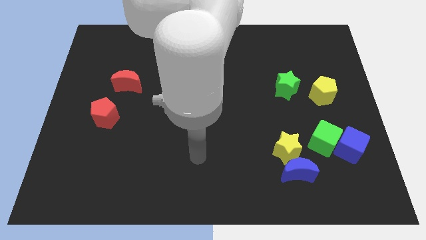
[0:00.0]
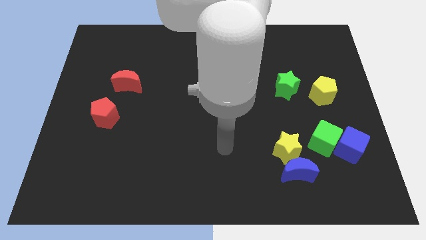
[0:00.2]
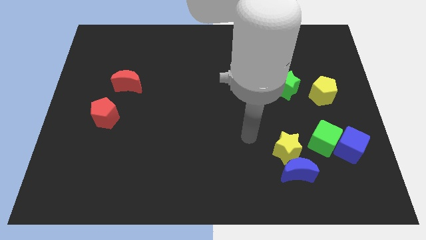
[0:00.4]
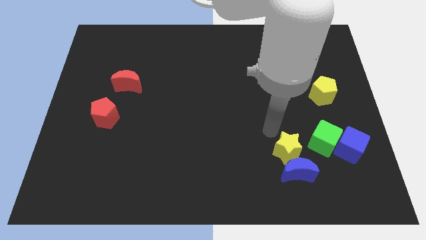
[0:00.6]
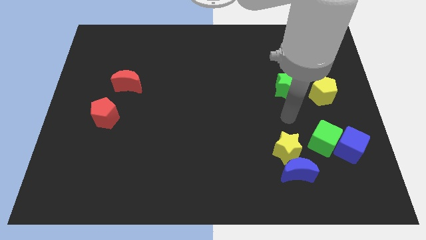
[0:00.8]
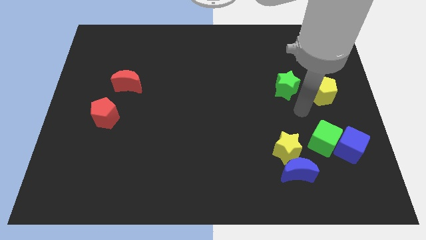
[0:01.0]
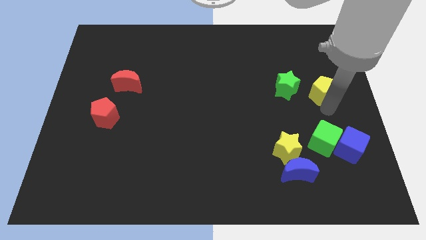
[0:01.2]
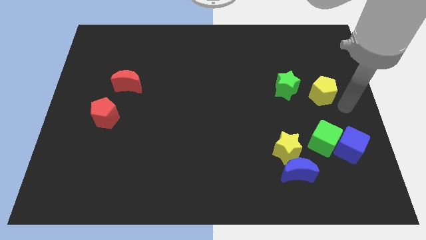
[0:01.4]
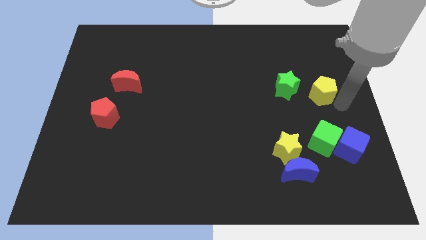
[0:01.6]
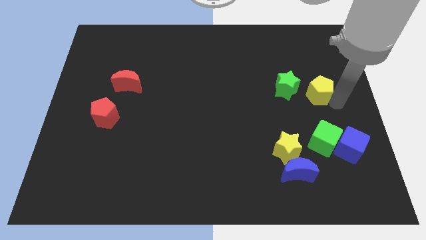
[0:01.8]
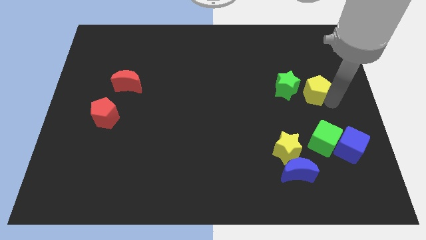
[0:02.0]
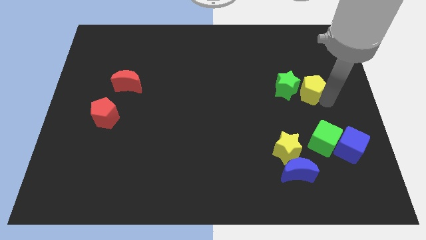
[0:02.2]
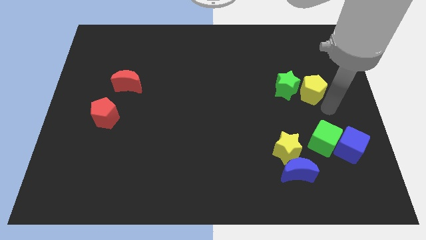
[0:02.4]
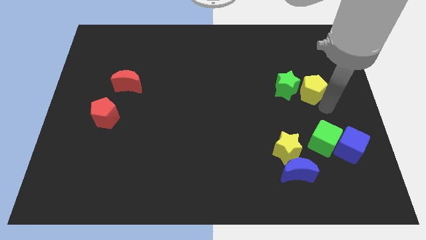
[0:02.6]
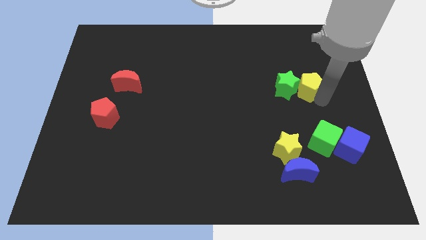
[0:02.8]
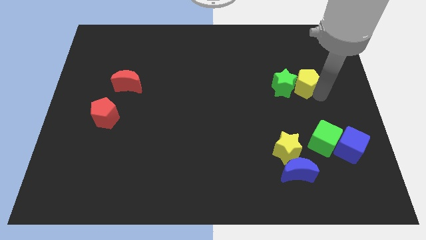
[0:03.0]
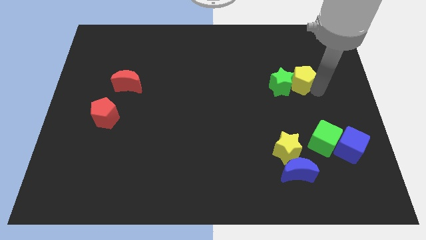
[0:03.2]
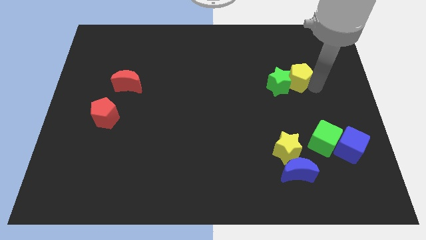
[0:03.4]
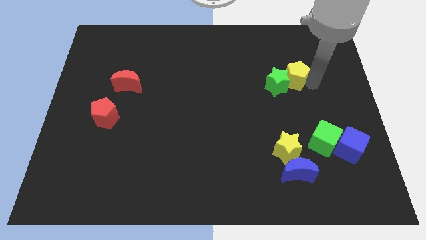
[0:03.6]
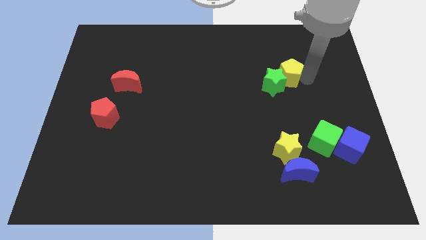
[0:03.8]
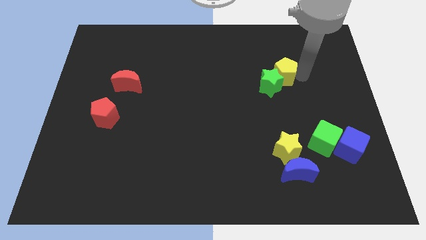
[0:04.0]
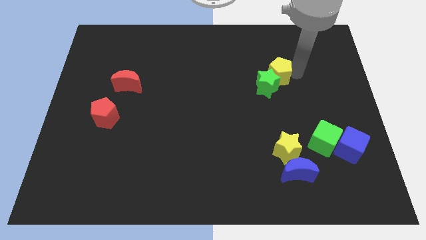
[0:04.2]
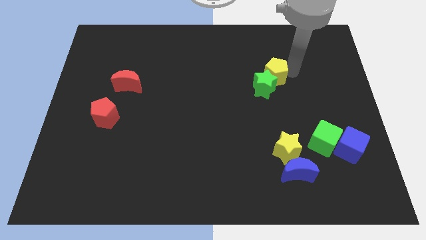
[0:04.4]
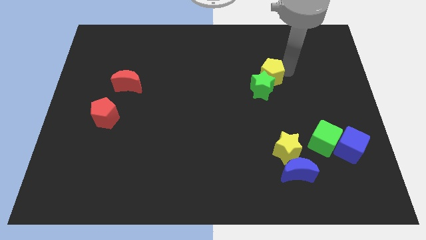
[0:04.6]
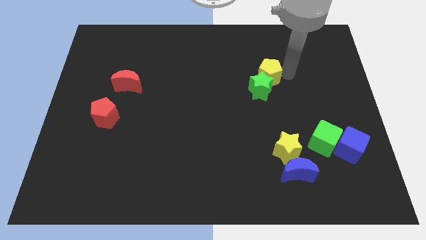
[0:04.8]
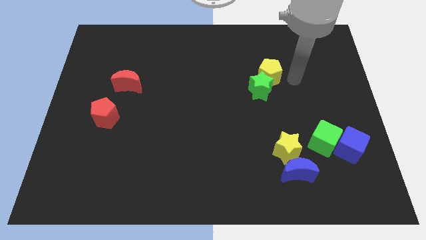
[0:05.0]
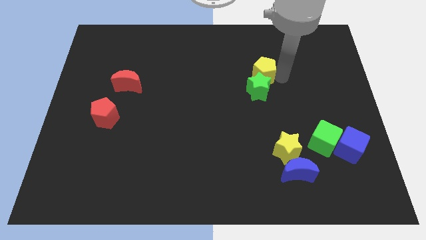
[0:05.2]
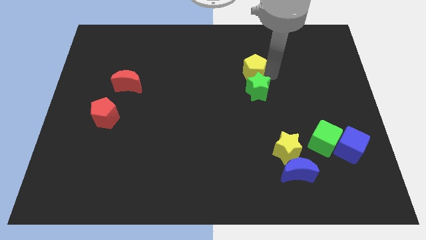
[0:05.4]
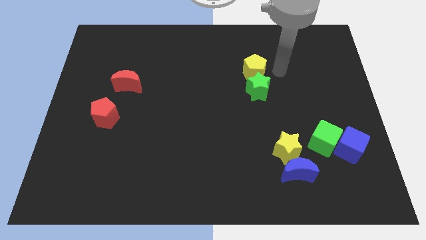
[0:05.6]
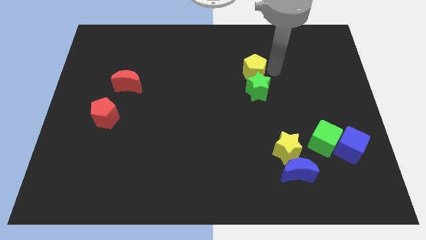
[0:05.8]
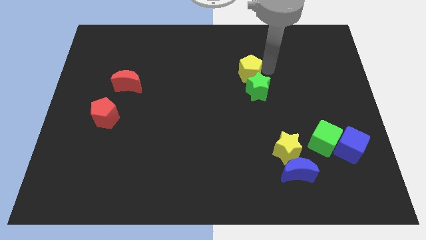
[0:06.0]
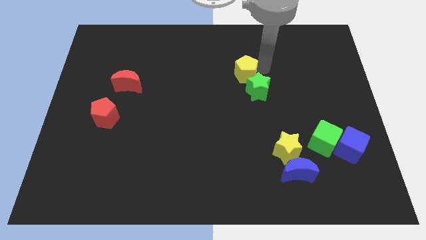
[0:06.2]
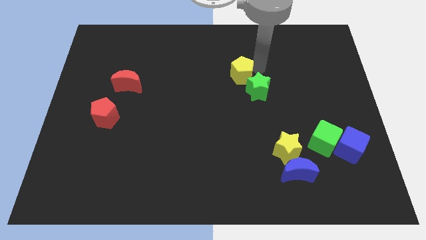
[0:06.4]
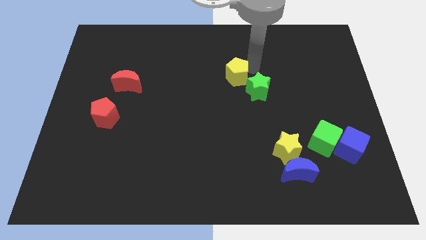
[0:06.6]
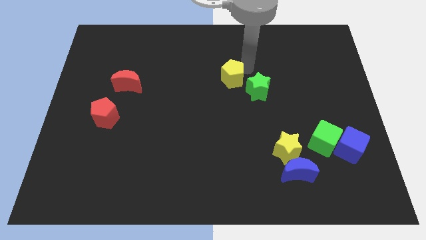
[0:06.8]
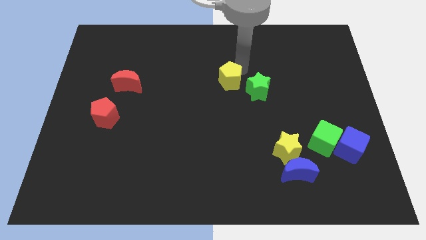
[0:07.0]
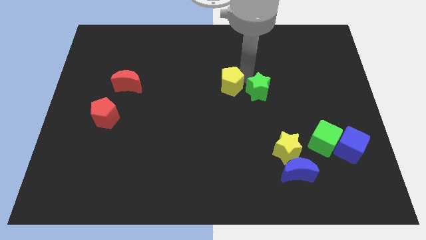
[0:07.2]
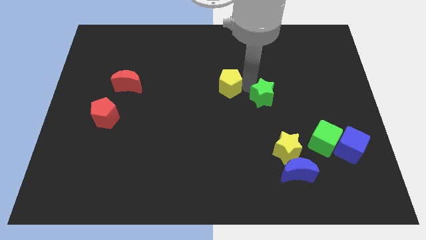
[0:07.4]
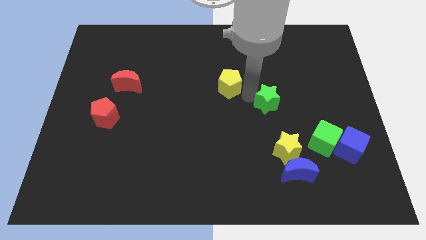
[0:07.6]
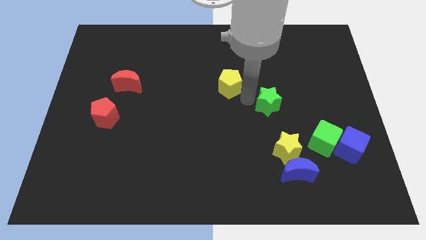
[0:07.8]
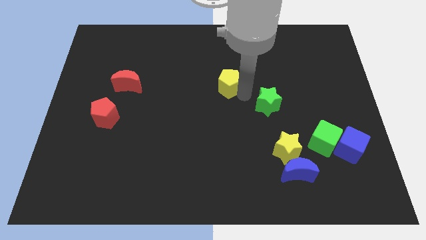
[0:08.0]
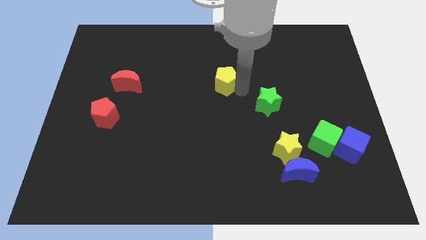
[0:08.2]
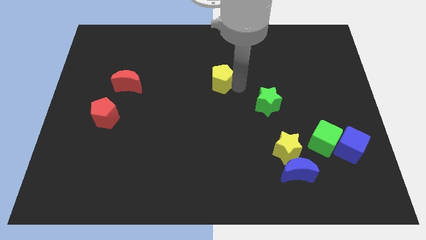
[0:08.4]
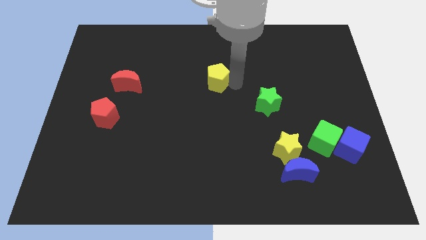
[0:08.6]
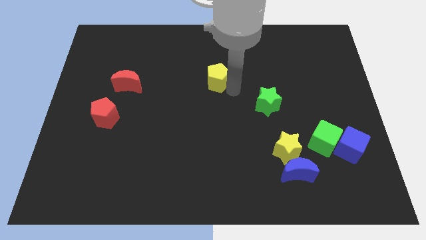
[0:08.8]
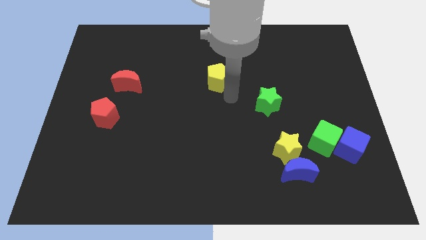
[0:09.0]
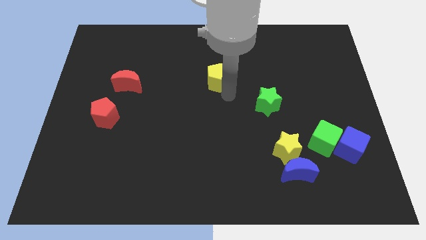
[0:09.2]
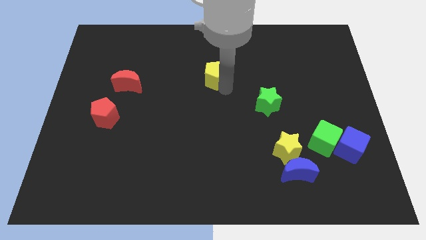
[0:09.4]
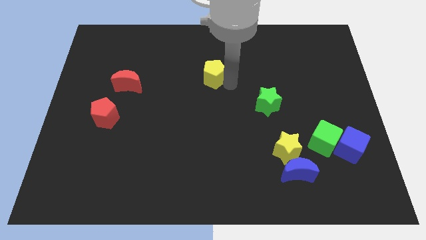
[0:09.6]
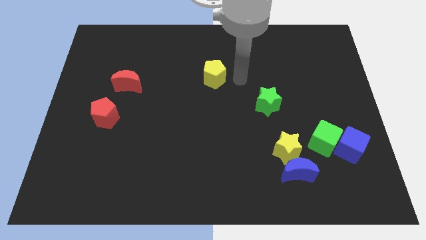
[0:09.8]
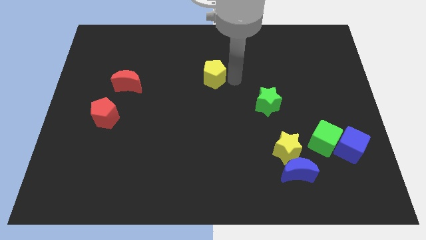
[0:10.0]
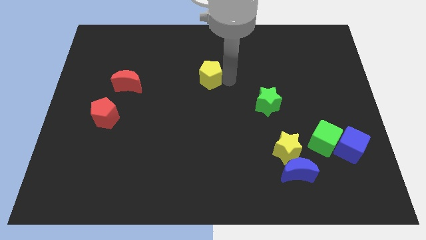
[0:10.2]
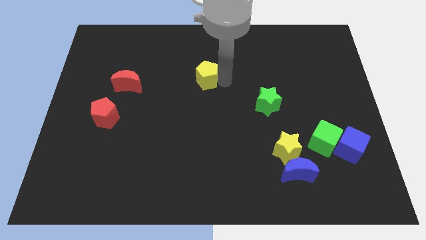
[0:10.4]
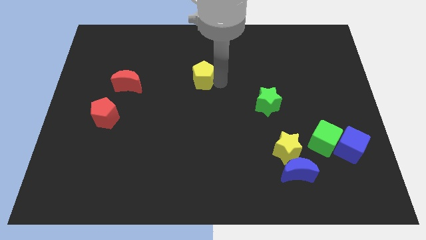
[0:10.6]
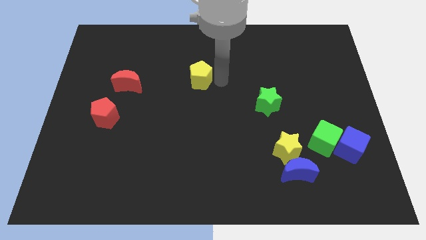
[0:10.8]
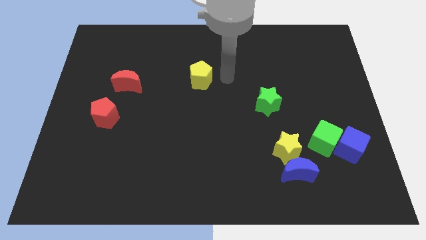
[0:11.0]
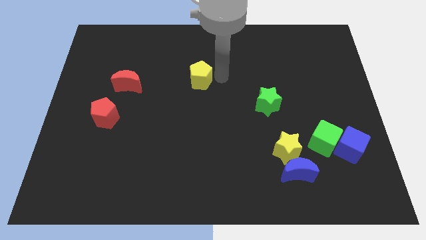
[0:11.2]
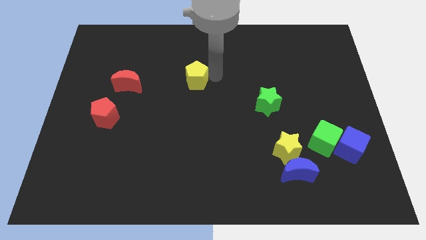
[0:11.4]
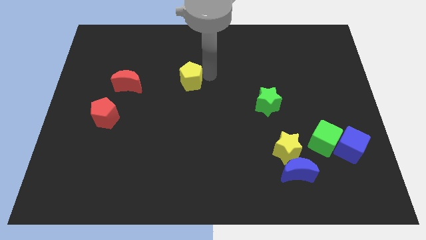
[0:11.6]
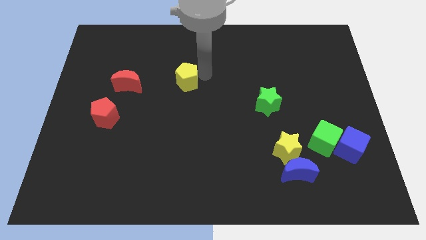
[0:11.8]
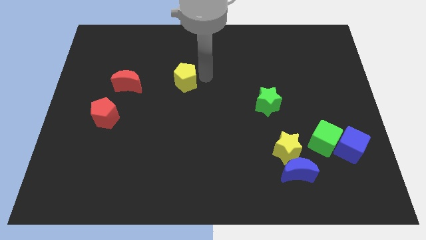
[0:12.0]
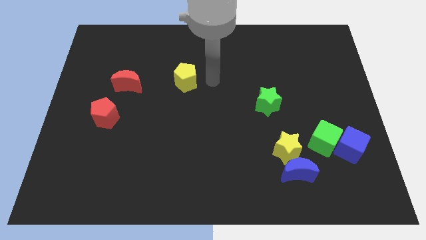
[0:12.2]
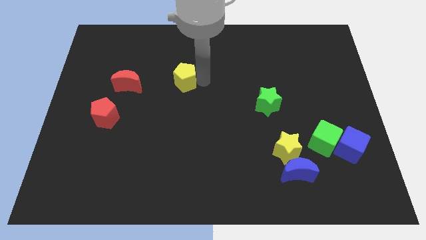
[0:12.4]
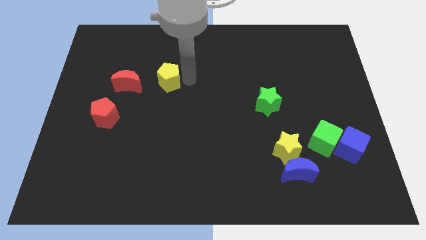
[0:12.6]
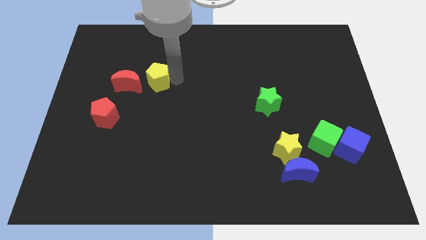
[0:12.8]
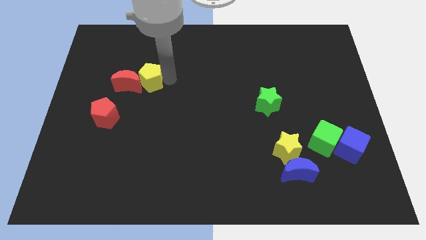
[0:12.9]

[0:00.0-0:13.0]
push the yellow pentagon close to the red moon
